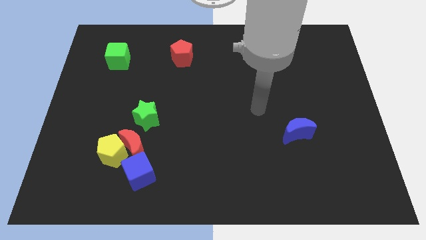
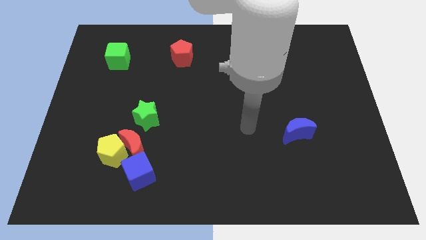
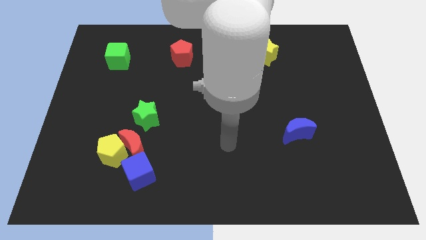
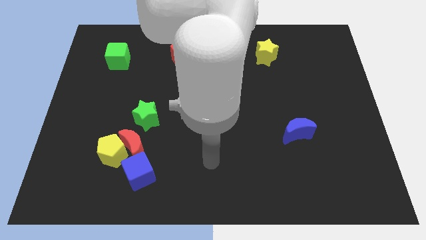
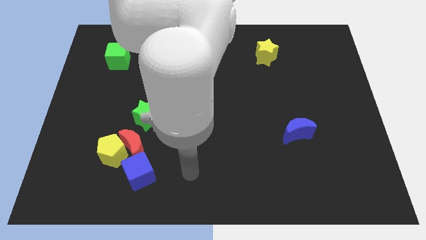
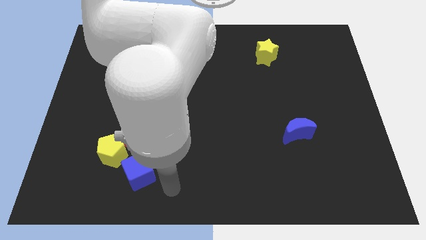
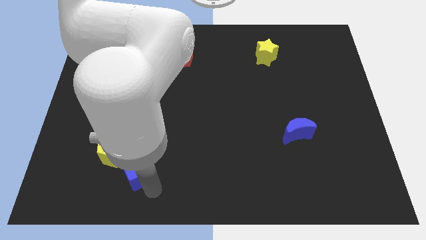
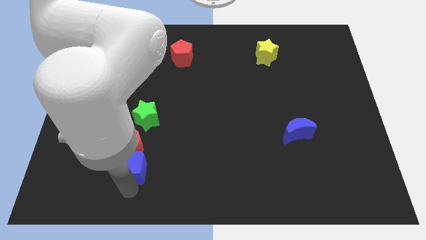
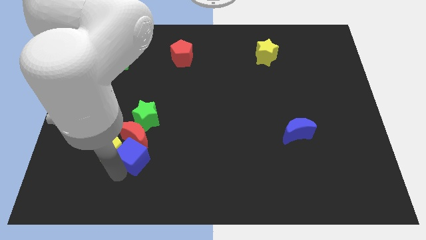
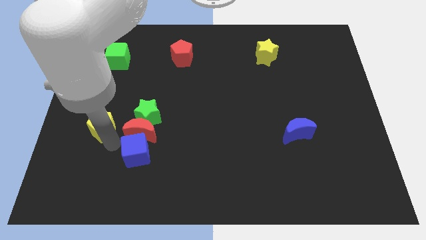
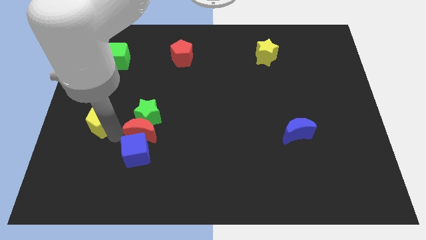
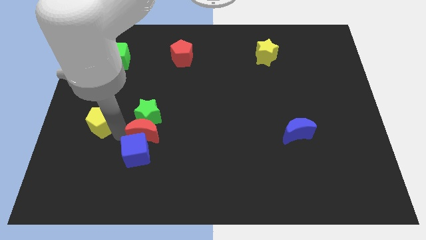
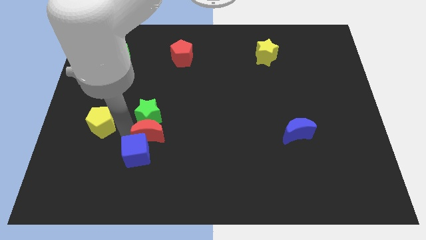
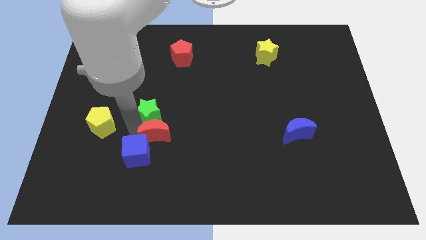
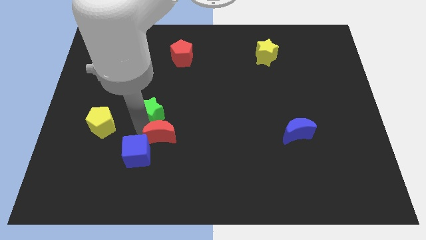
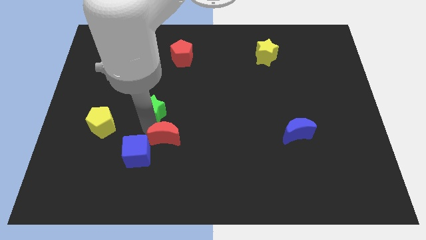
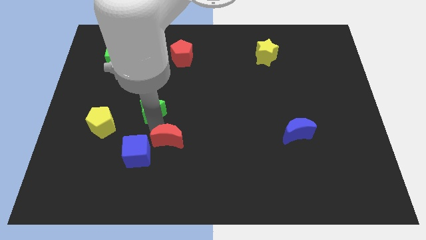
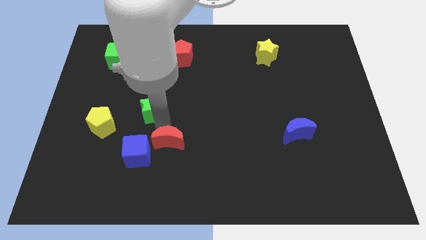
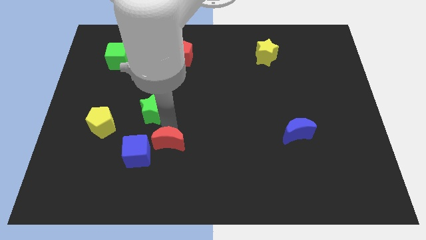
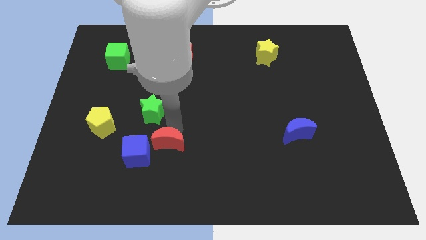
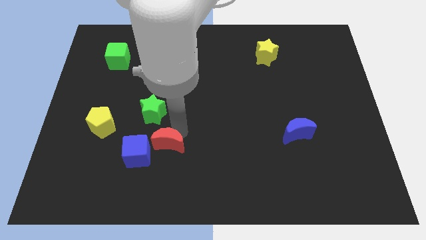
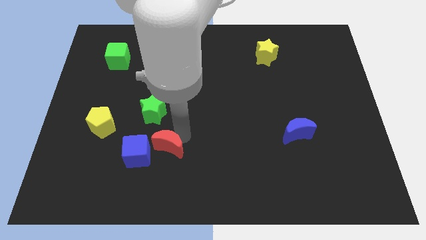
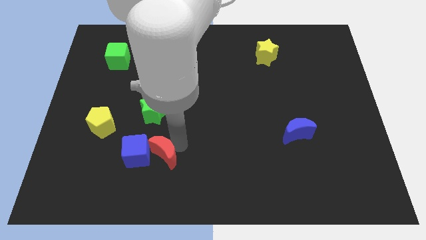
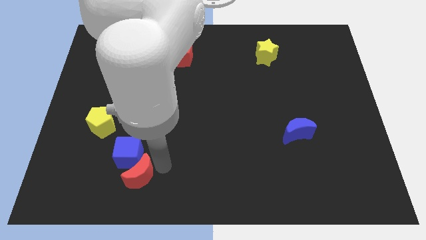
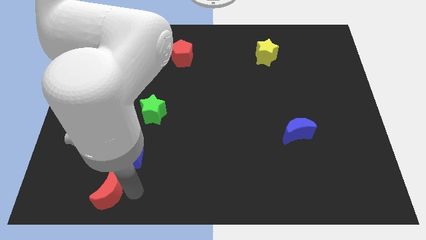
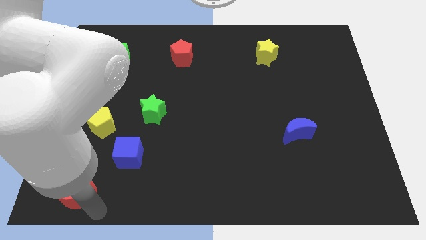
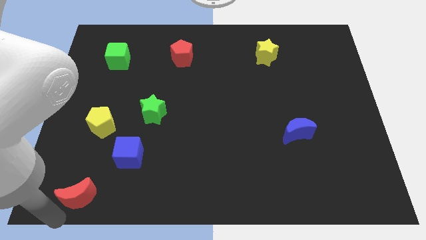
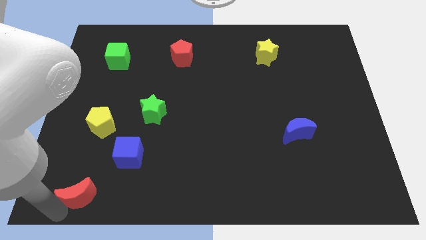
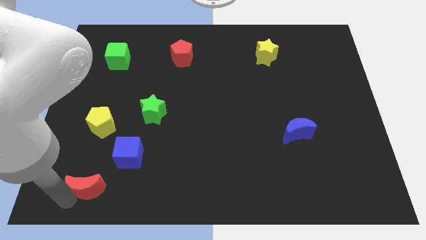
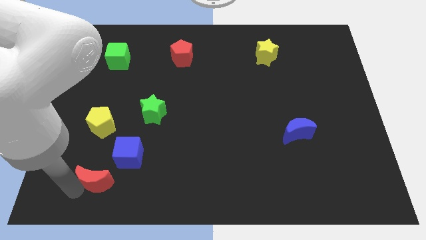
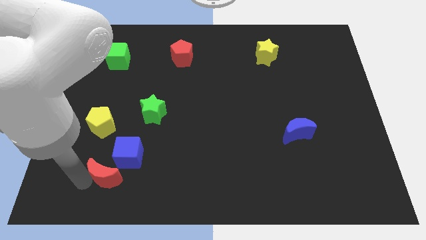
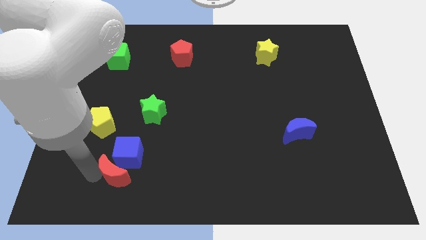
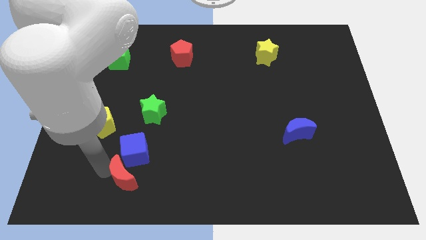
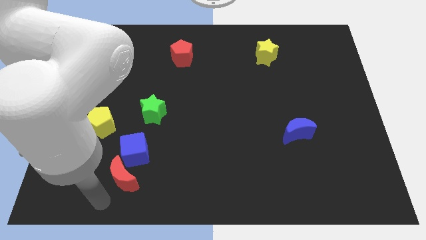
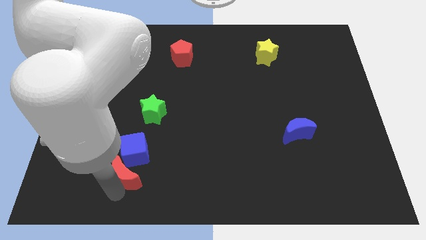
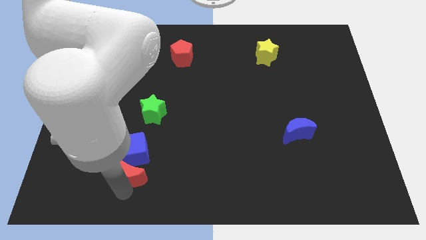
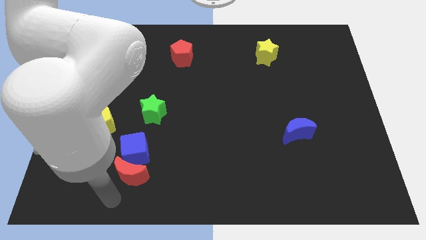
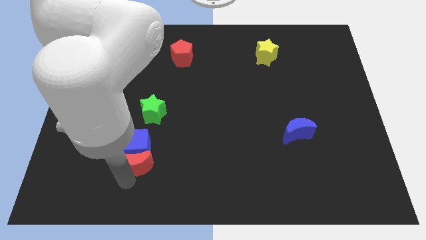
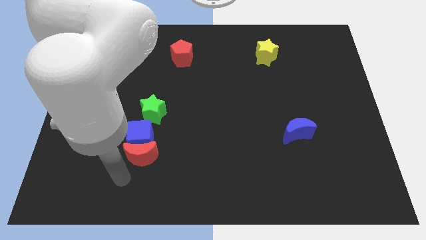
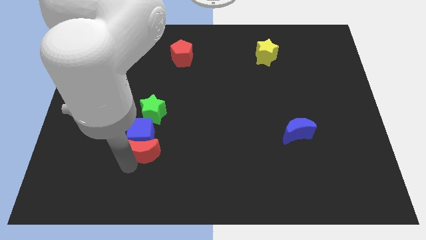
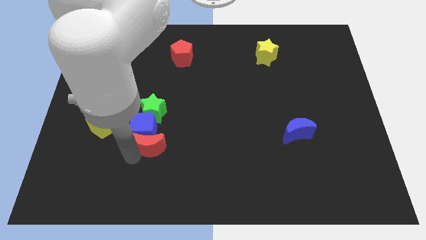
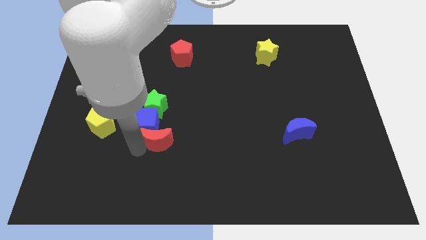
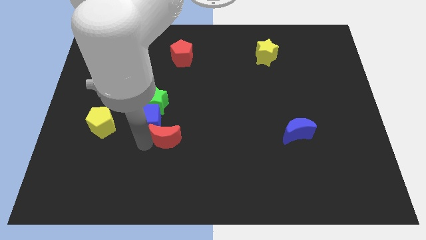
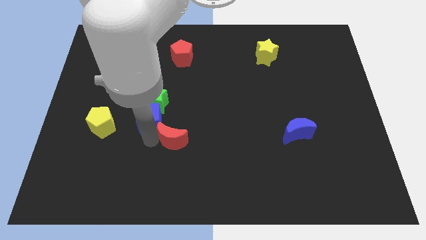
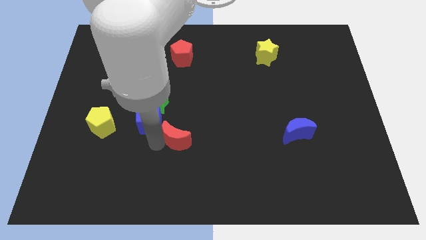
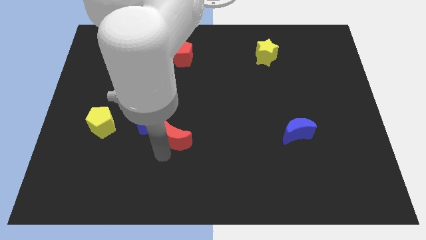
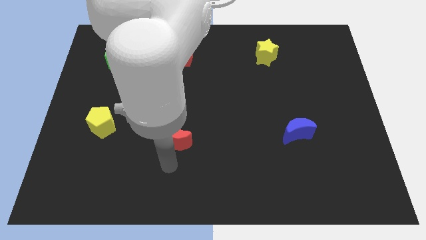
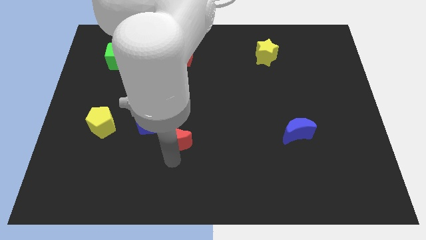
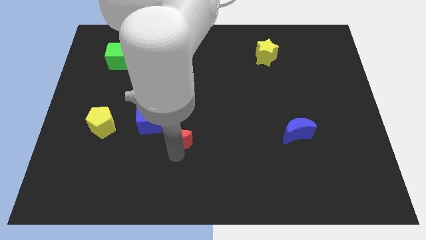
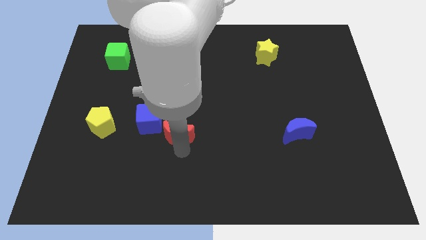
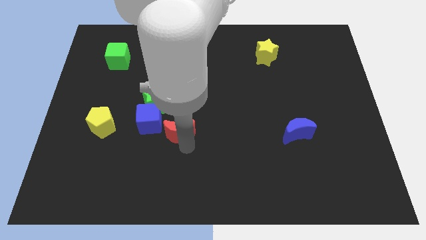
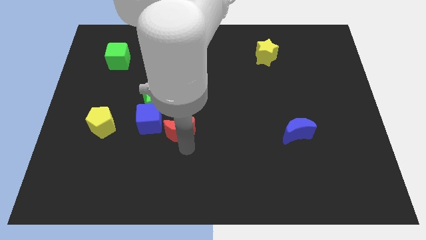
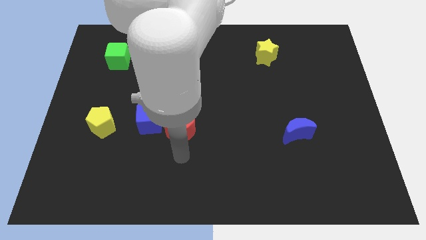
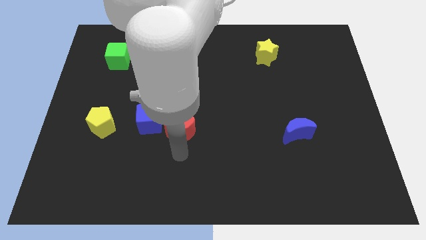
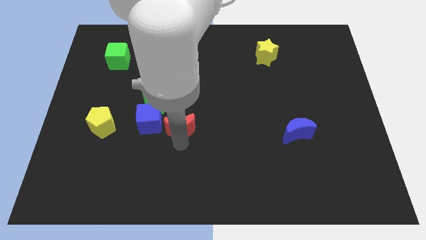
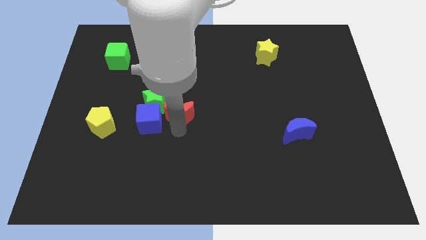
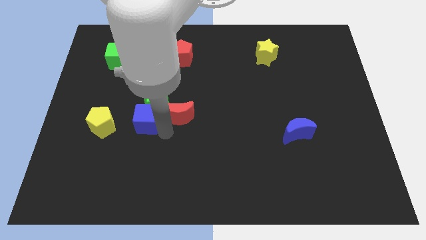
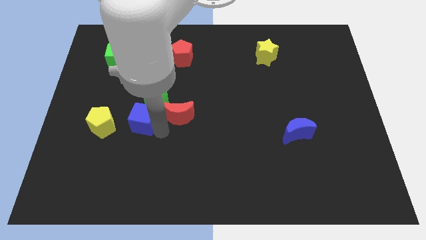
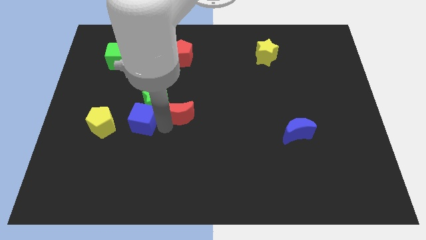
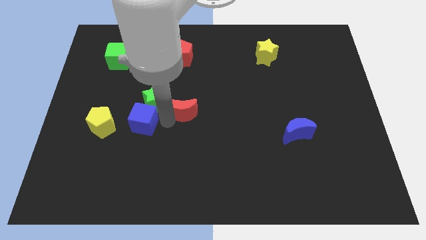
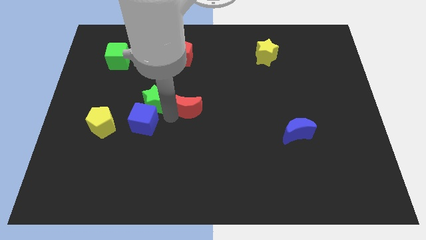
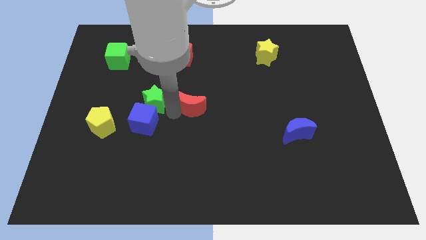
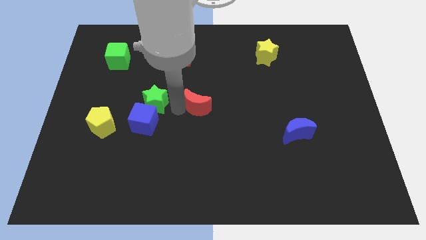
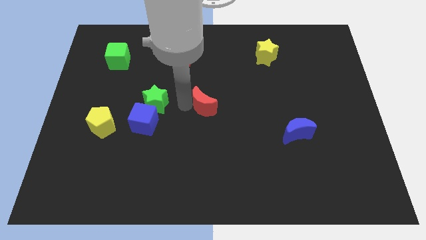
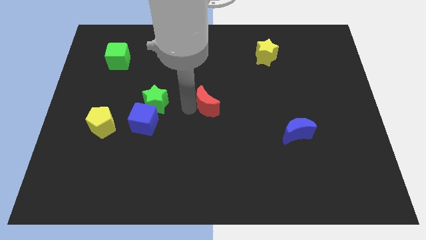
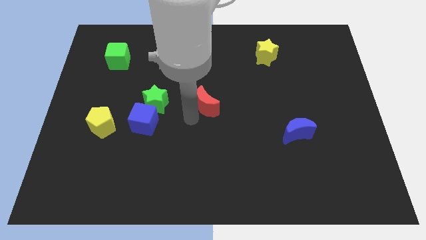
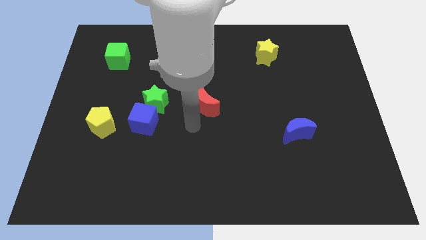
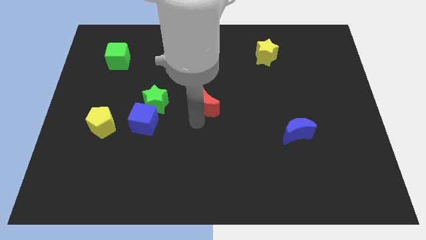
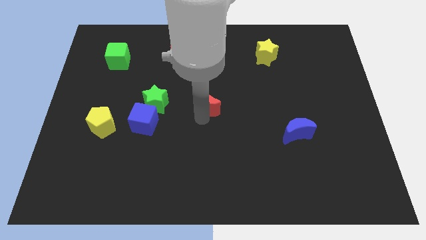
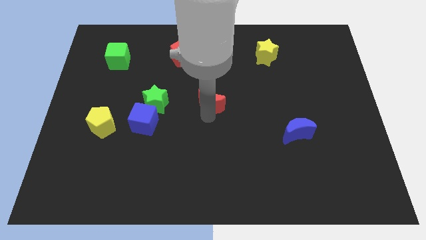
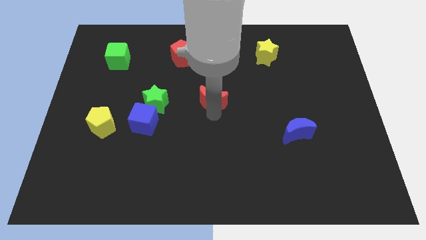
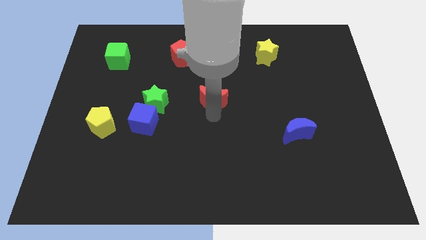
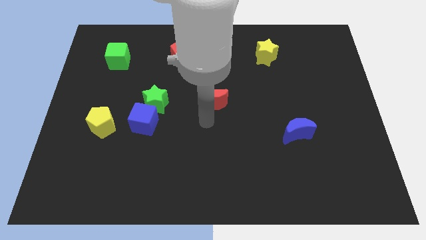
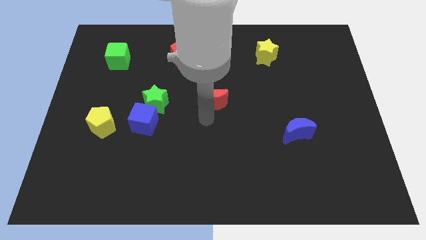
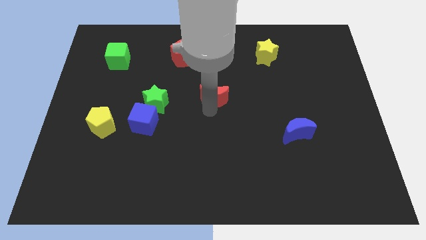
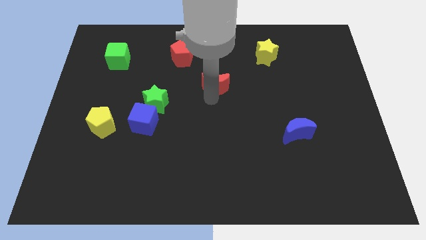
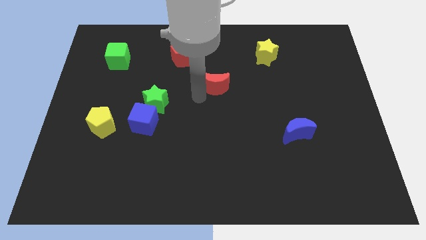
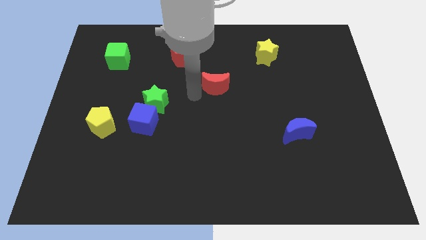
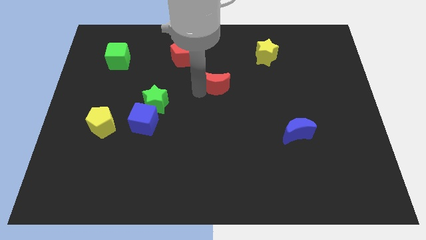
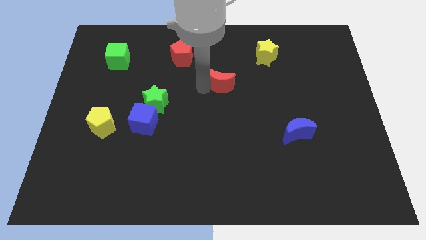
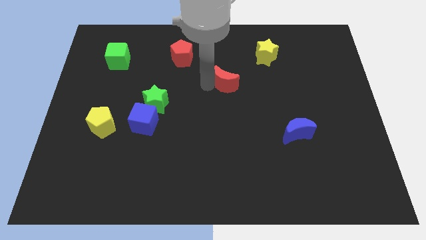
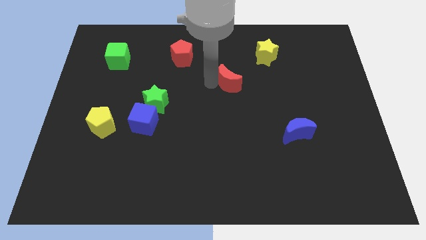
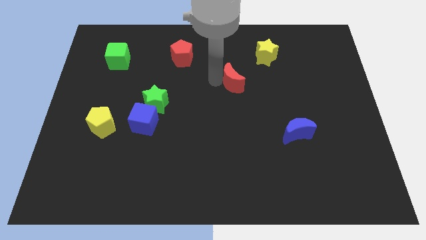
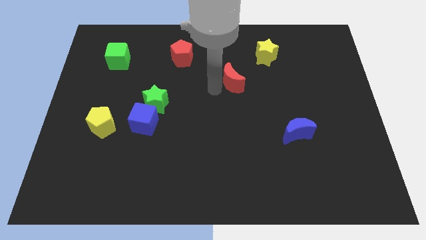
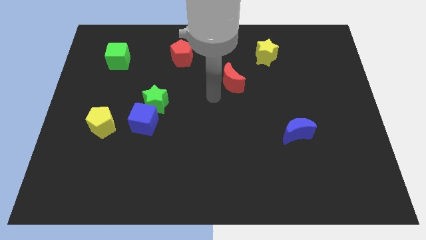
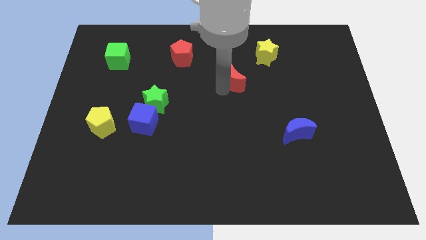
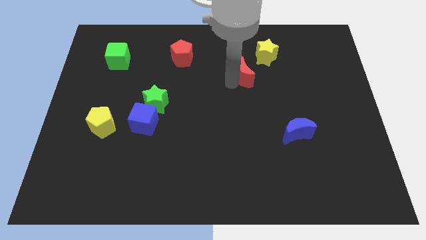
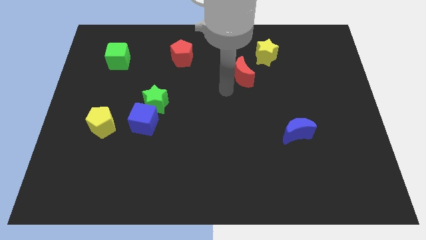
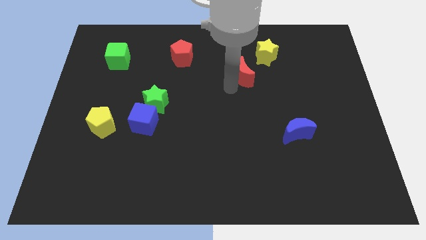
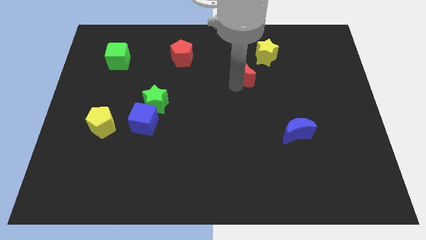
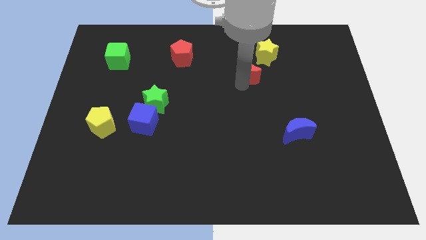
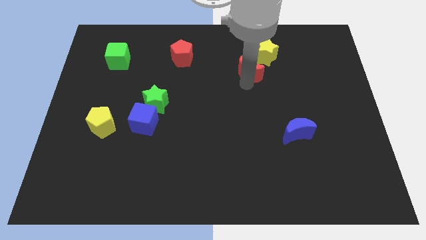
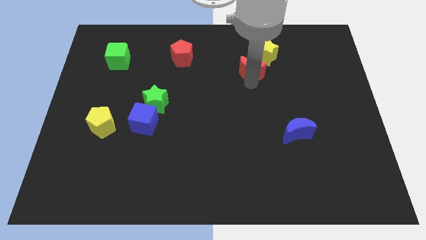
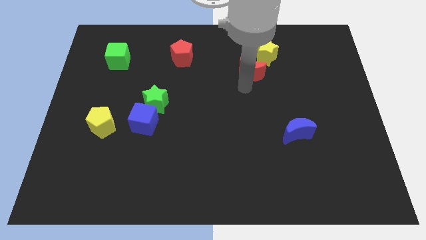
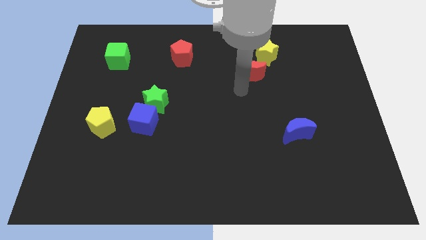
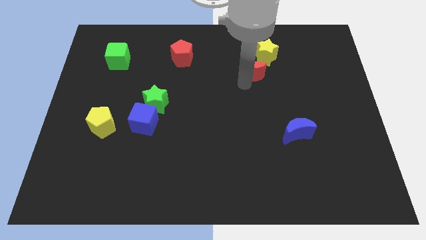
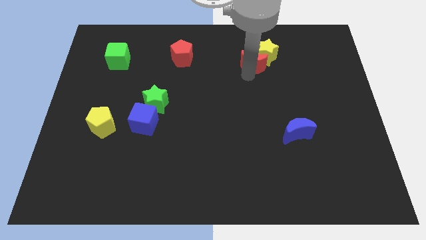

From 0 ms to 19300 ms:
slide the red moon to the yellow star
